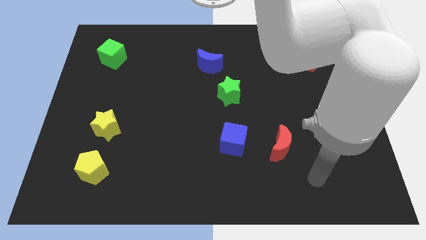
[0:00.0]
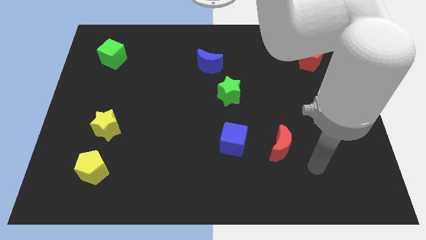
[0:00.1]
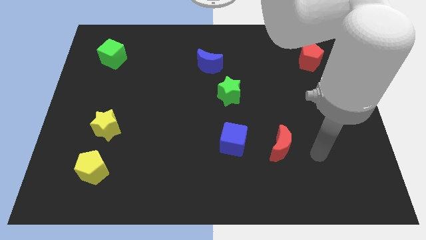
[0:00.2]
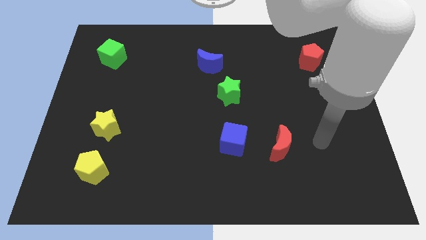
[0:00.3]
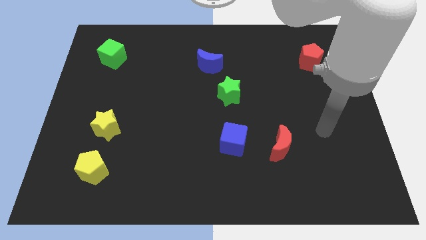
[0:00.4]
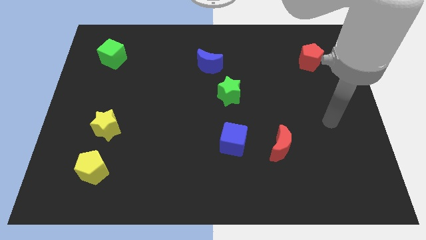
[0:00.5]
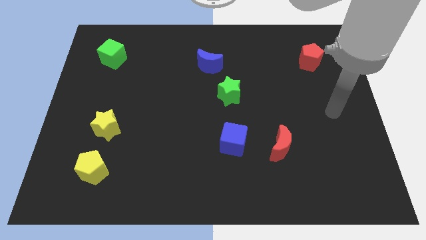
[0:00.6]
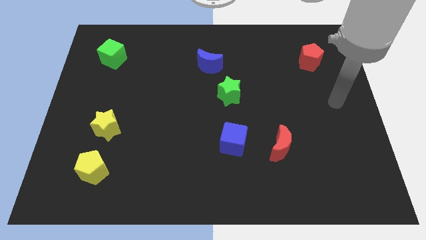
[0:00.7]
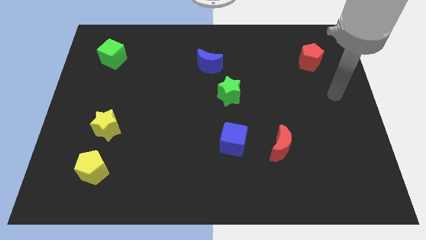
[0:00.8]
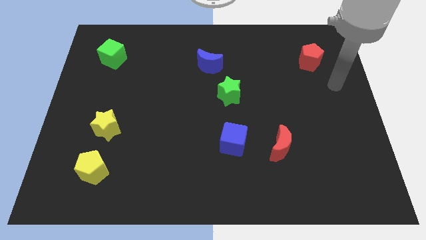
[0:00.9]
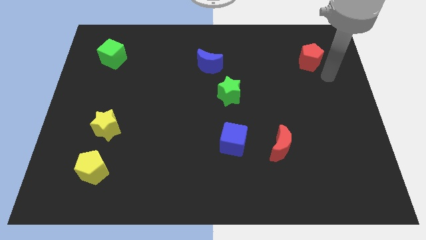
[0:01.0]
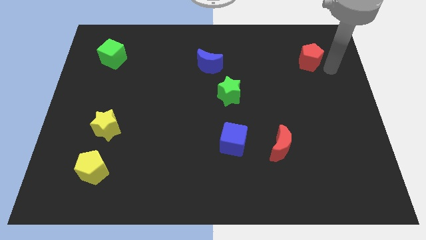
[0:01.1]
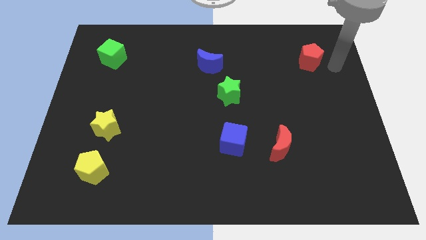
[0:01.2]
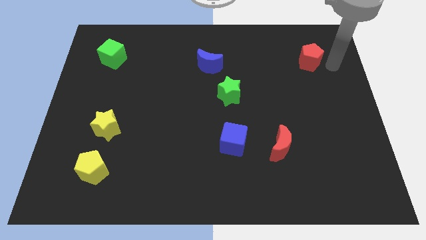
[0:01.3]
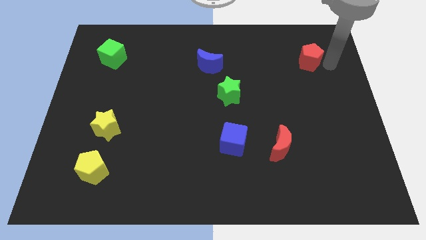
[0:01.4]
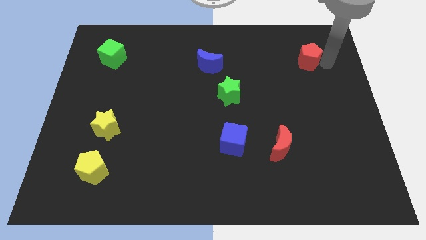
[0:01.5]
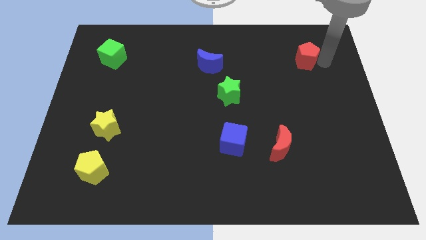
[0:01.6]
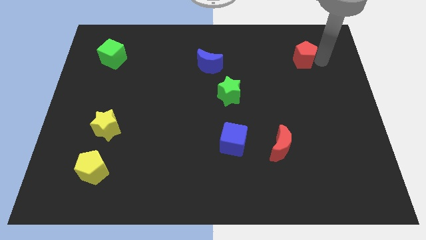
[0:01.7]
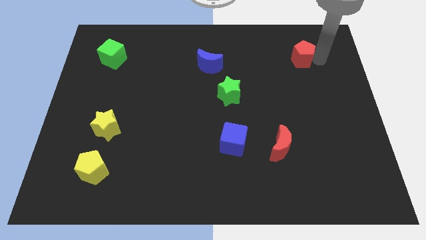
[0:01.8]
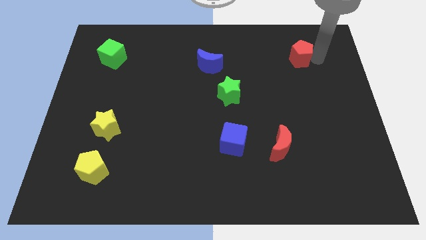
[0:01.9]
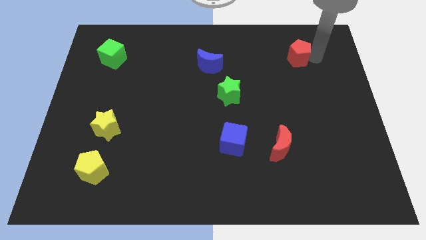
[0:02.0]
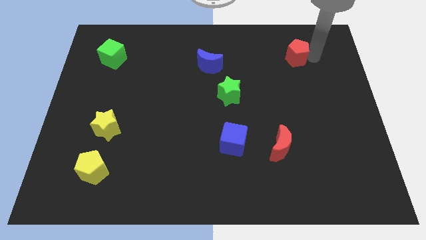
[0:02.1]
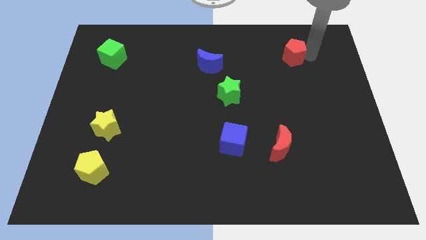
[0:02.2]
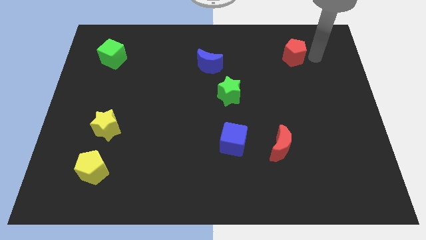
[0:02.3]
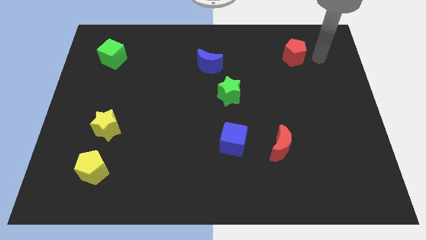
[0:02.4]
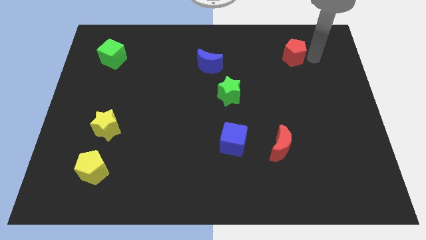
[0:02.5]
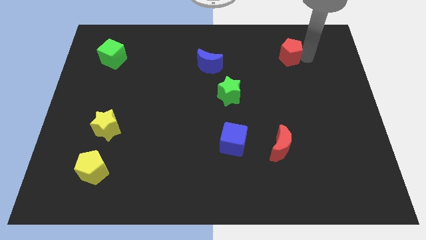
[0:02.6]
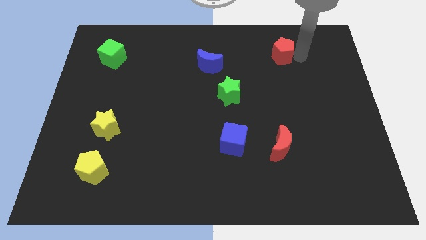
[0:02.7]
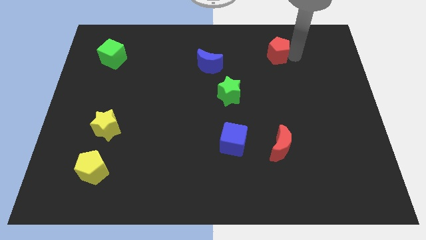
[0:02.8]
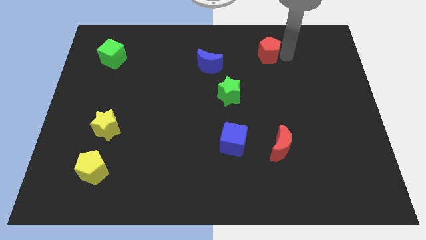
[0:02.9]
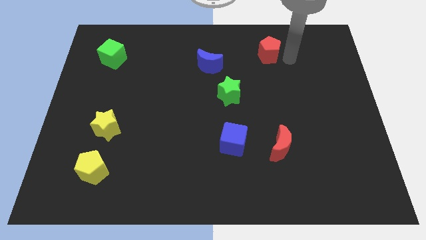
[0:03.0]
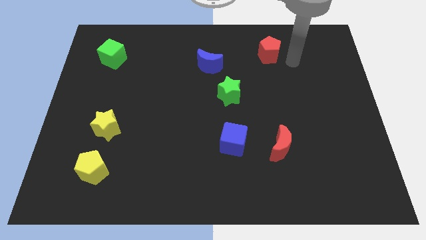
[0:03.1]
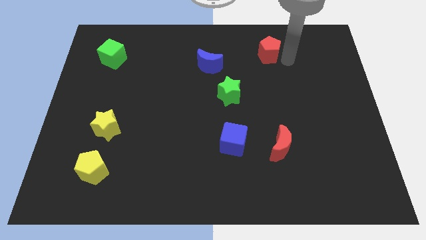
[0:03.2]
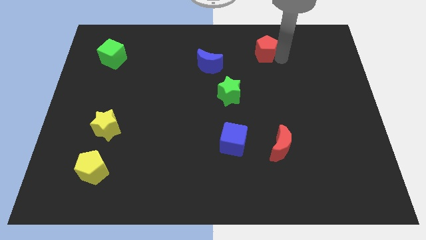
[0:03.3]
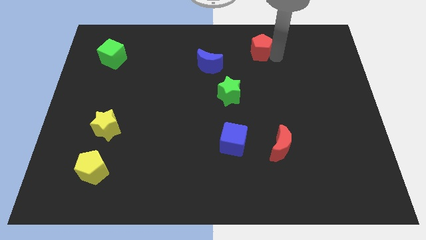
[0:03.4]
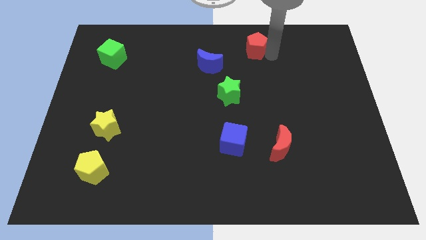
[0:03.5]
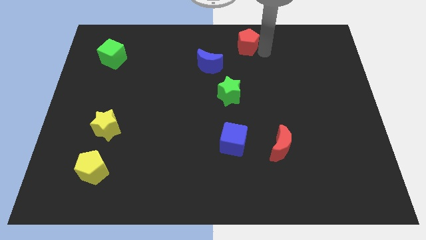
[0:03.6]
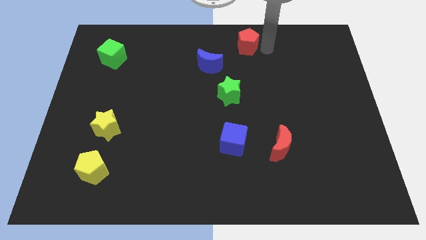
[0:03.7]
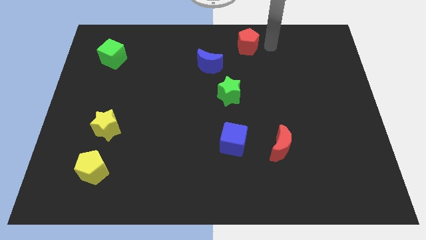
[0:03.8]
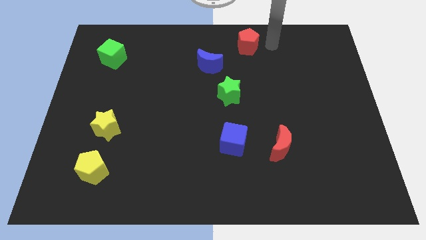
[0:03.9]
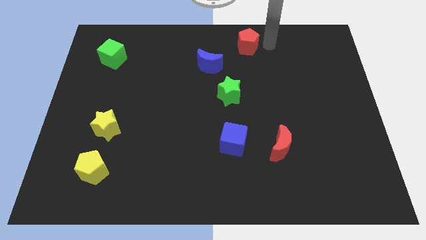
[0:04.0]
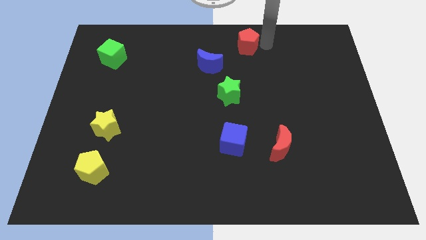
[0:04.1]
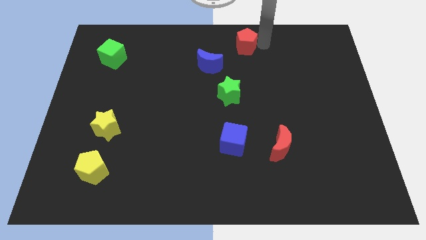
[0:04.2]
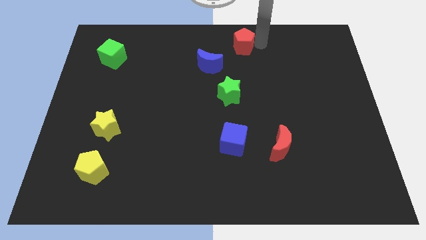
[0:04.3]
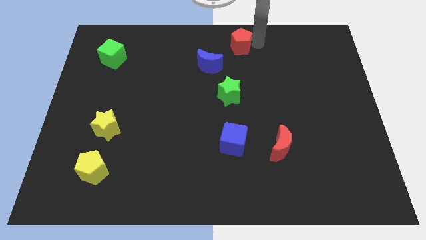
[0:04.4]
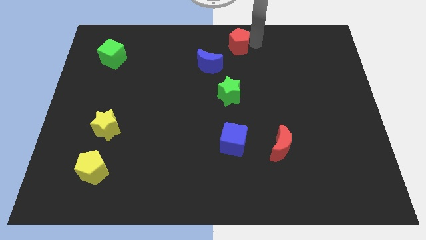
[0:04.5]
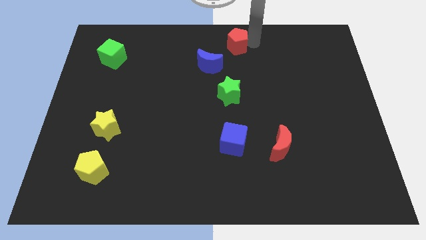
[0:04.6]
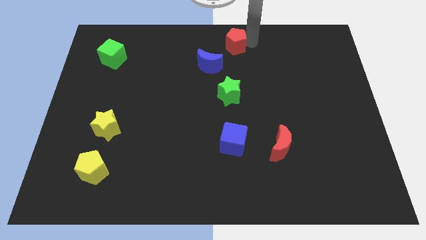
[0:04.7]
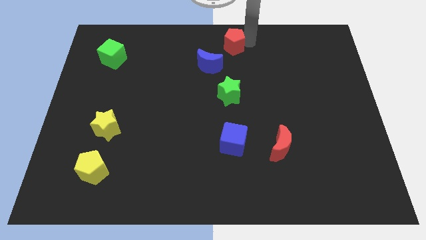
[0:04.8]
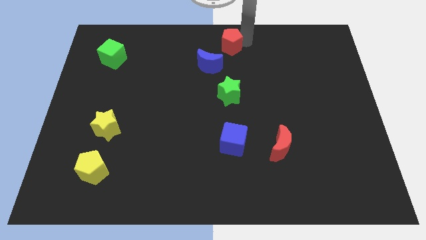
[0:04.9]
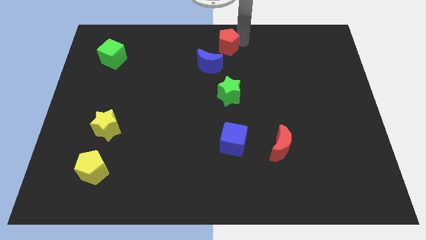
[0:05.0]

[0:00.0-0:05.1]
slide the red pentagon left

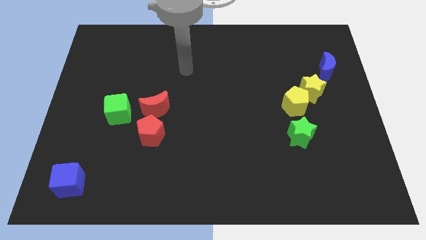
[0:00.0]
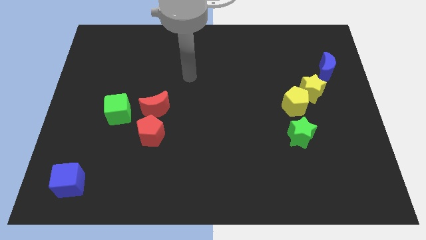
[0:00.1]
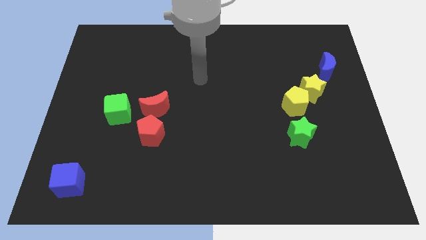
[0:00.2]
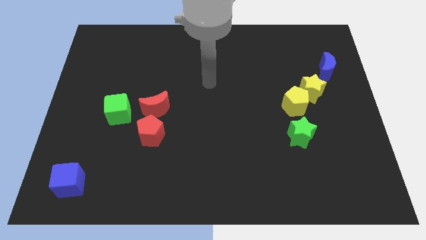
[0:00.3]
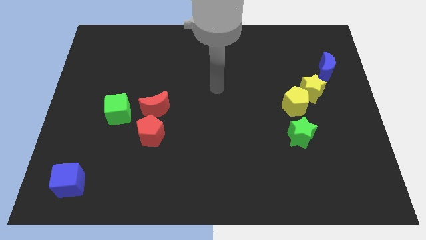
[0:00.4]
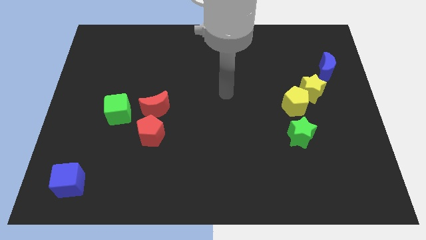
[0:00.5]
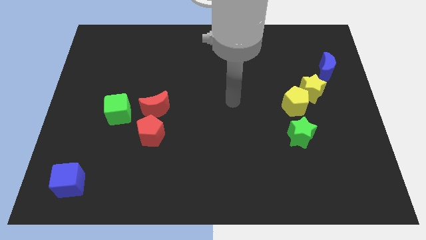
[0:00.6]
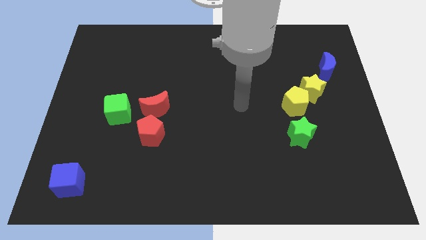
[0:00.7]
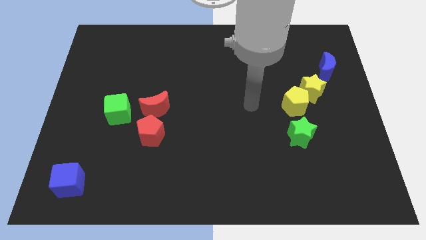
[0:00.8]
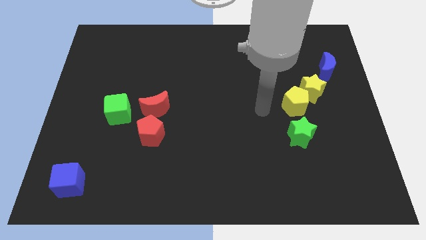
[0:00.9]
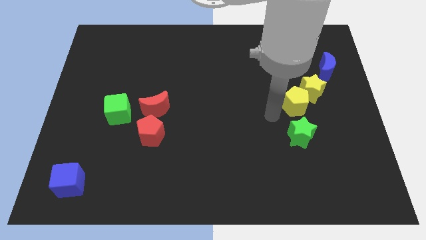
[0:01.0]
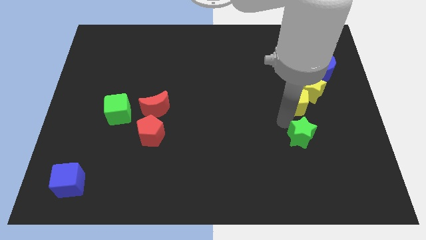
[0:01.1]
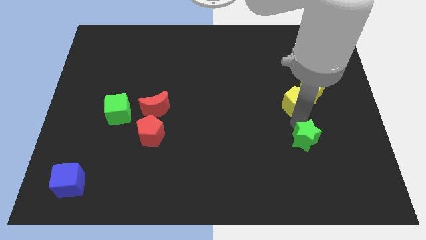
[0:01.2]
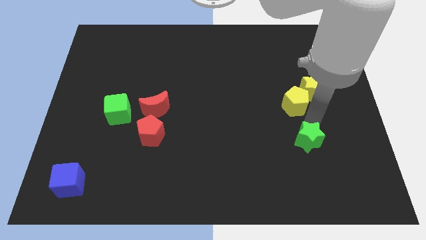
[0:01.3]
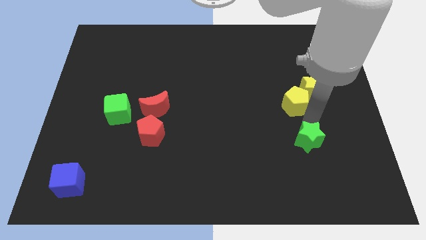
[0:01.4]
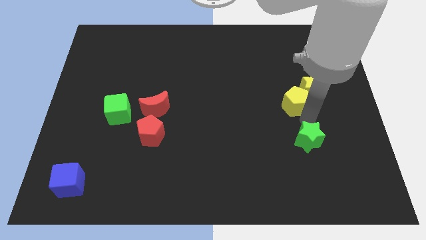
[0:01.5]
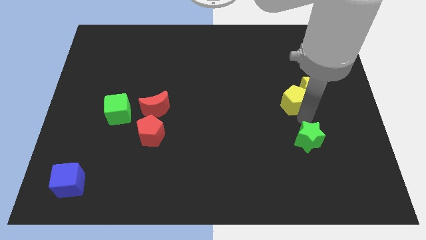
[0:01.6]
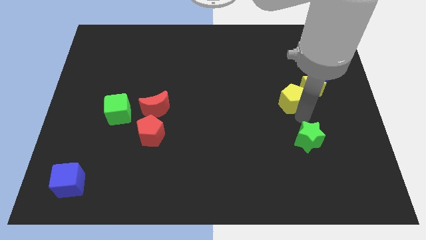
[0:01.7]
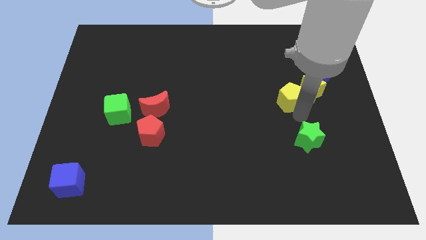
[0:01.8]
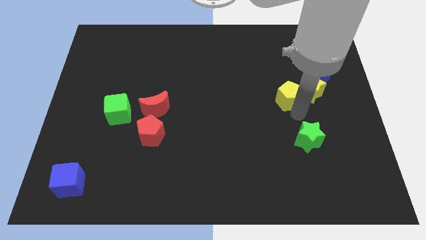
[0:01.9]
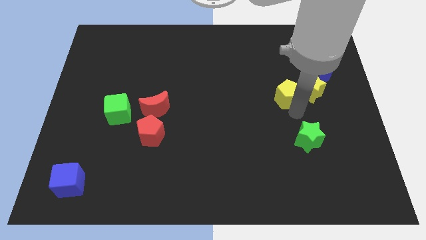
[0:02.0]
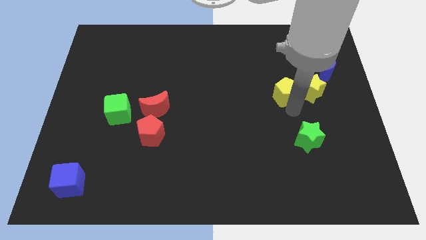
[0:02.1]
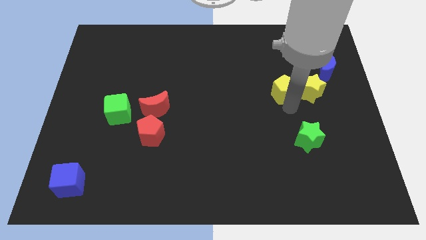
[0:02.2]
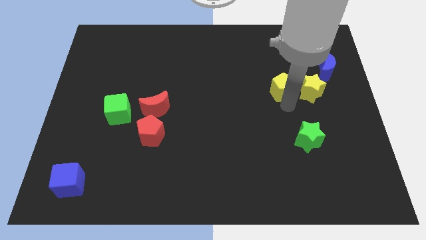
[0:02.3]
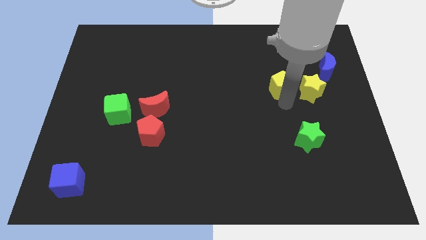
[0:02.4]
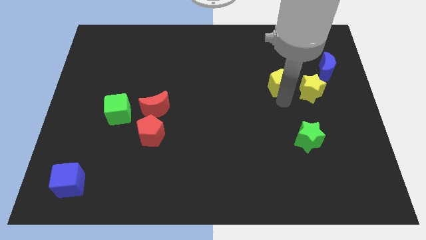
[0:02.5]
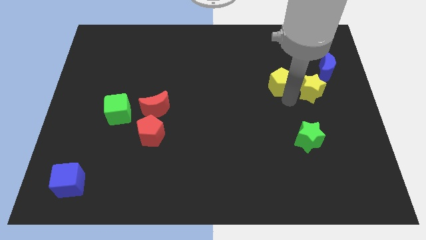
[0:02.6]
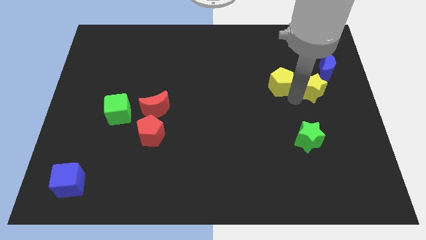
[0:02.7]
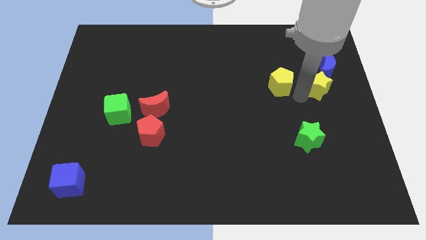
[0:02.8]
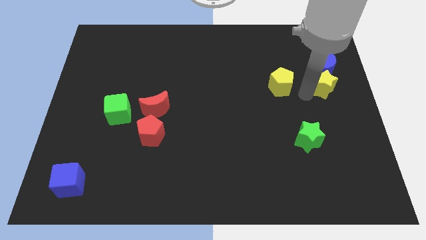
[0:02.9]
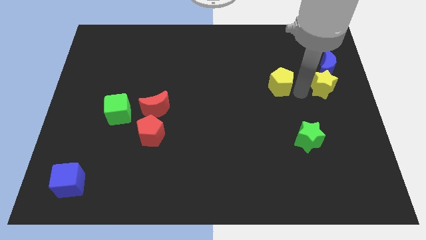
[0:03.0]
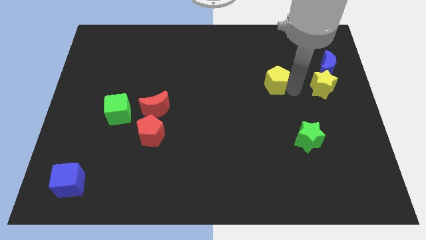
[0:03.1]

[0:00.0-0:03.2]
move the yellow pentagon a little bit upwards and to the left
